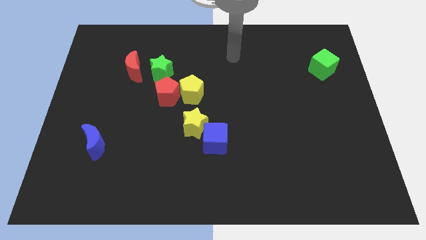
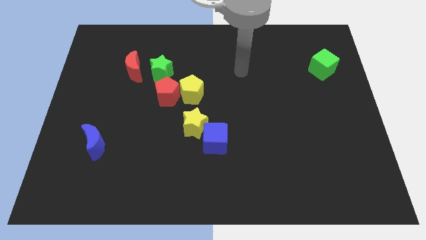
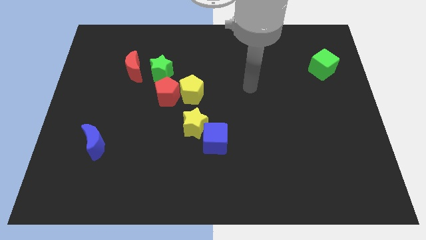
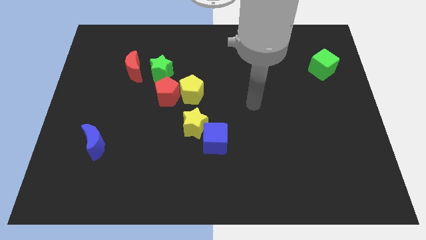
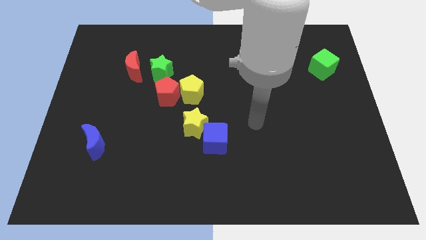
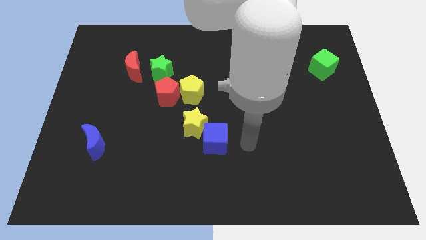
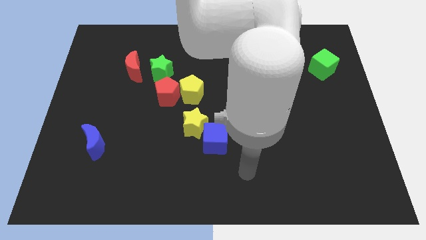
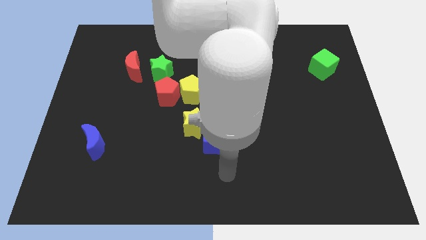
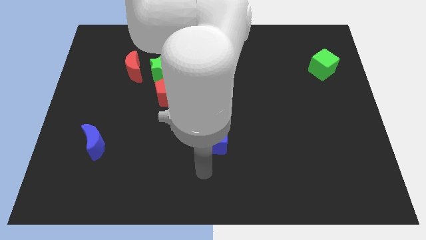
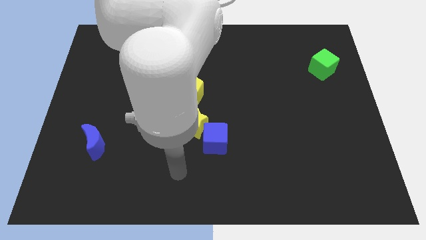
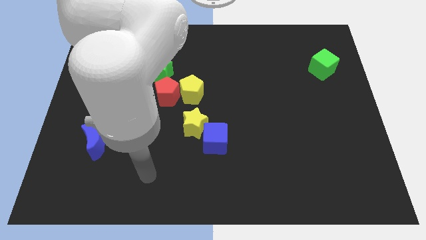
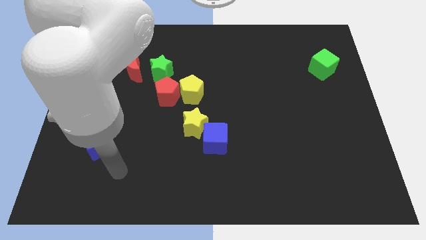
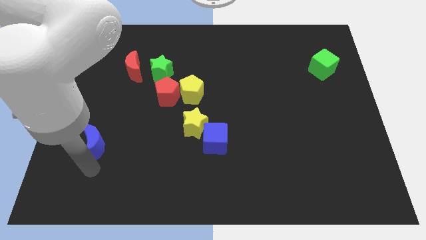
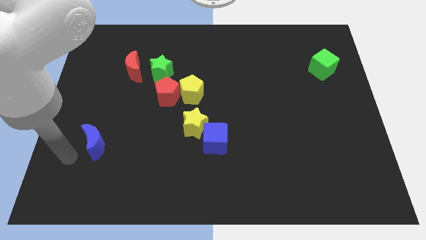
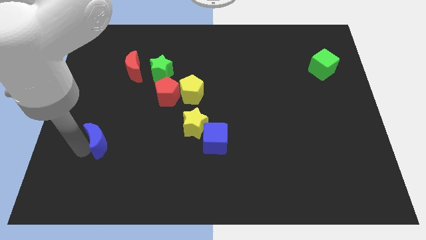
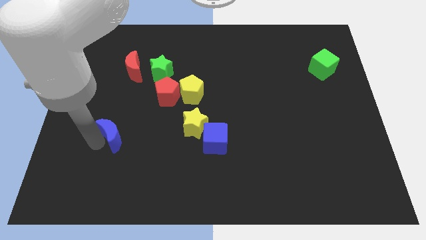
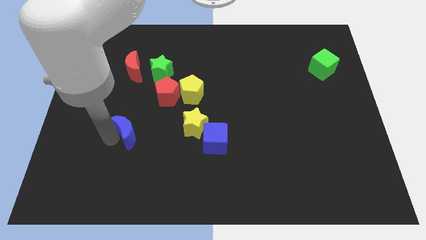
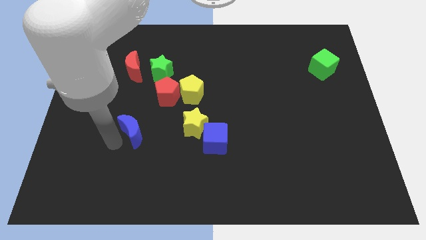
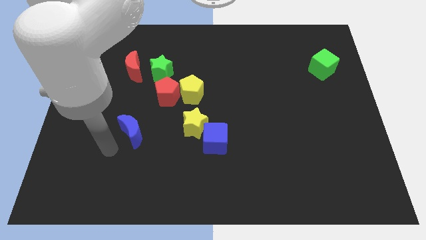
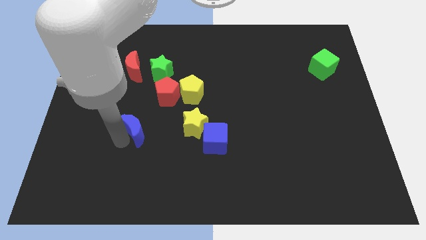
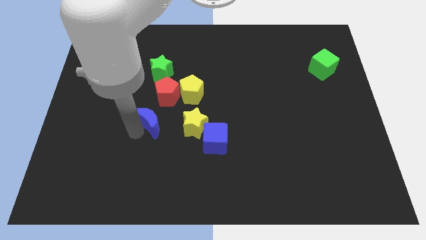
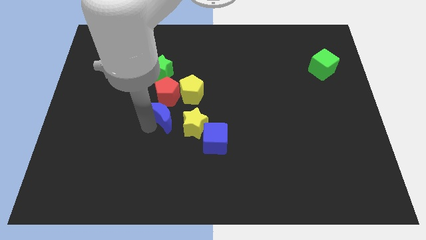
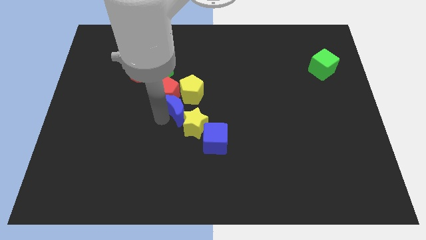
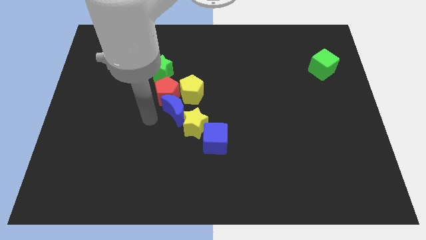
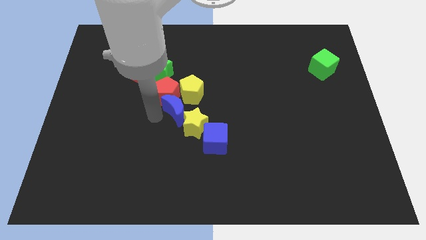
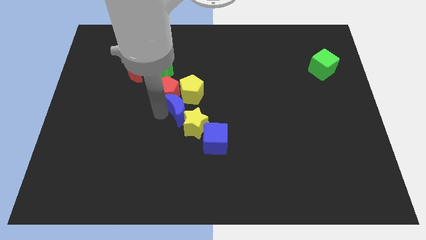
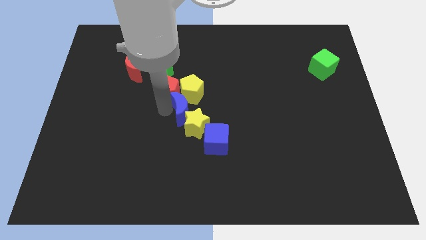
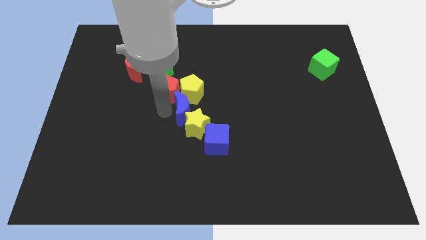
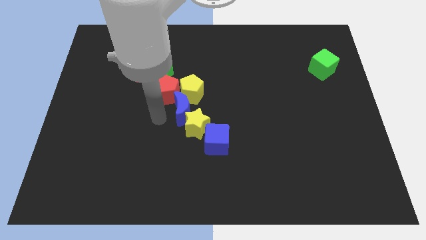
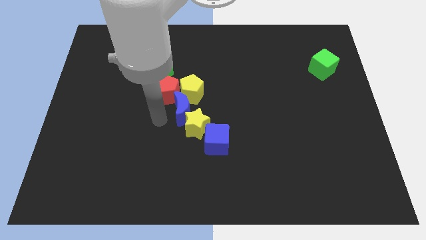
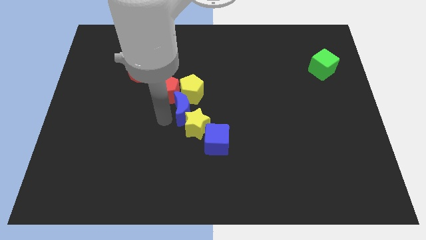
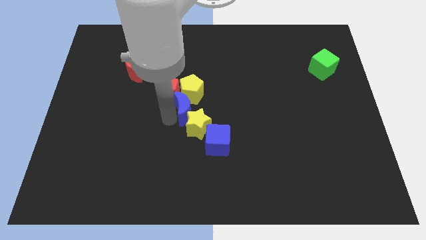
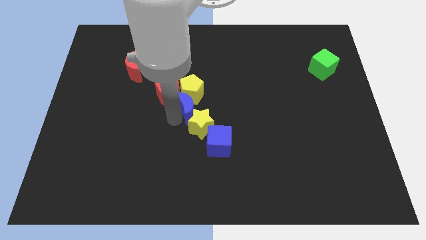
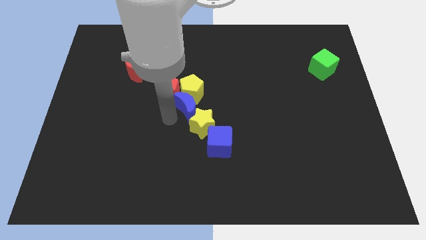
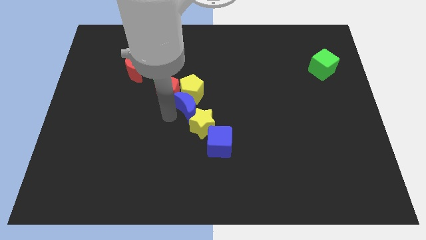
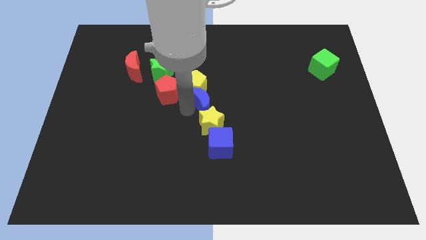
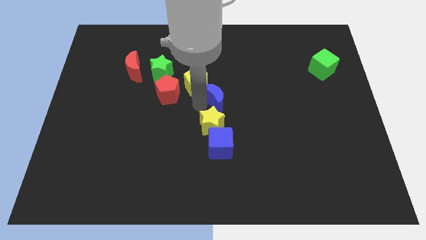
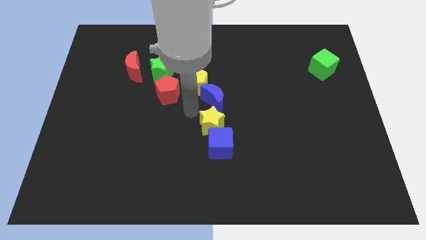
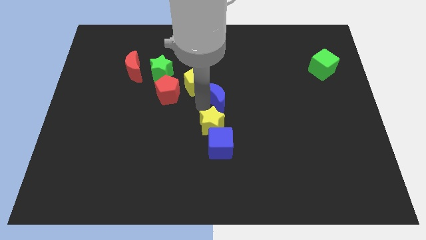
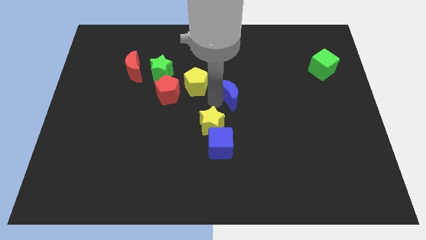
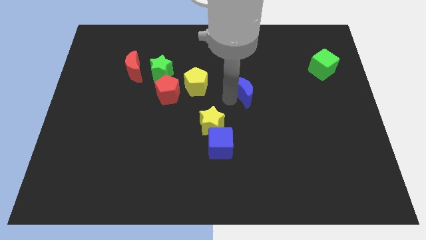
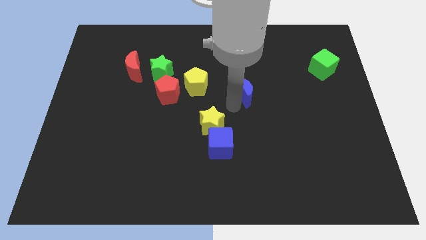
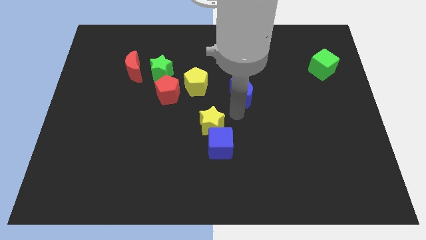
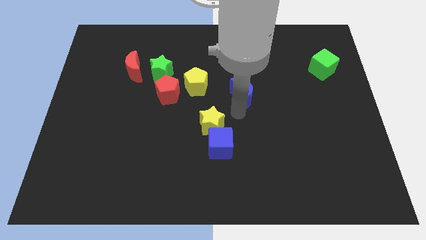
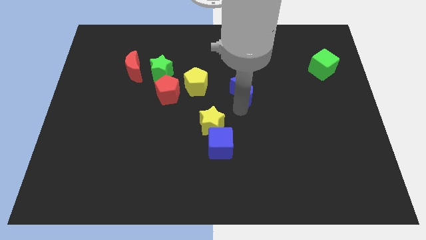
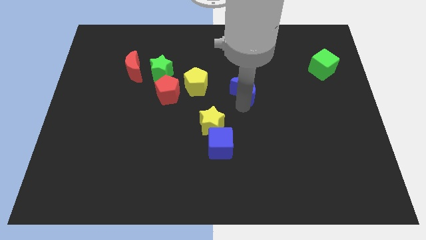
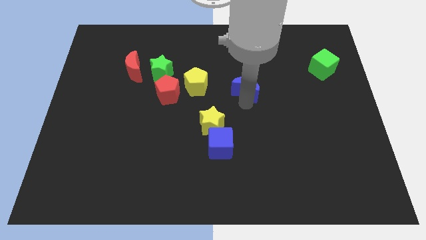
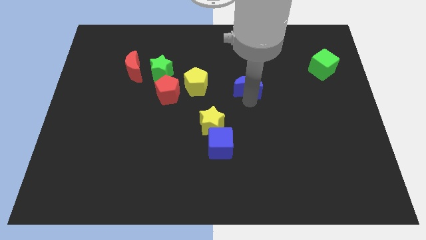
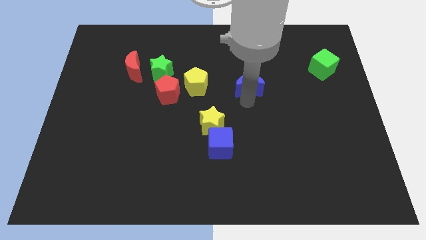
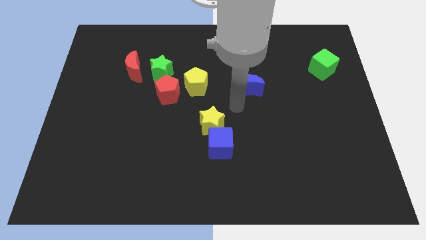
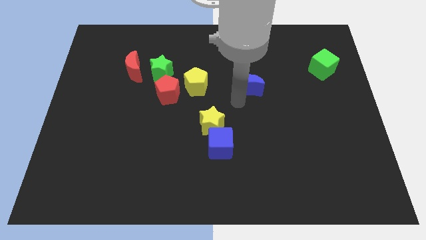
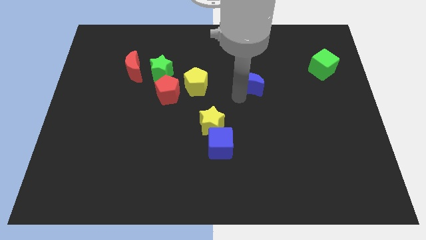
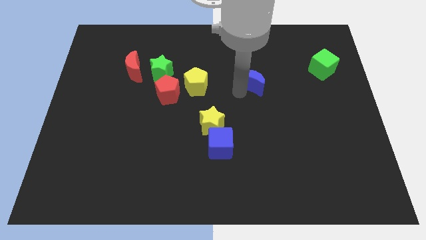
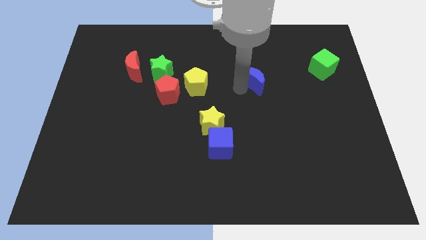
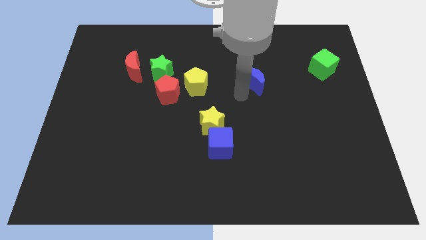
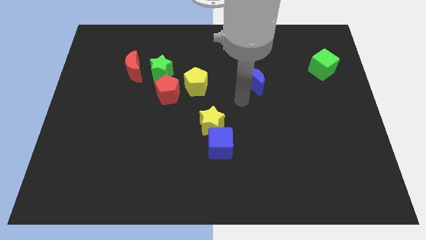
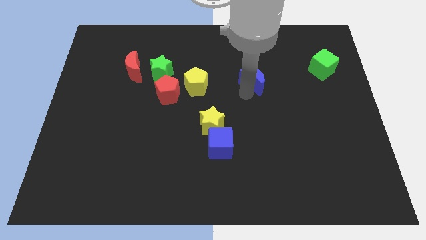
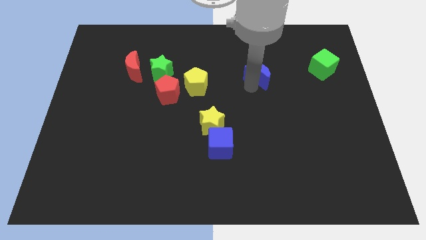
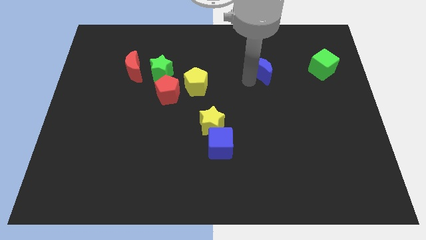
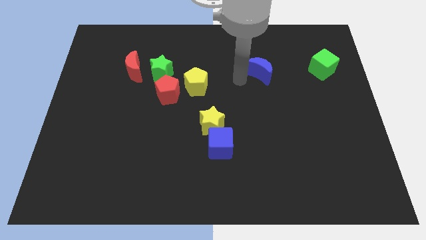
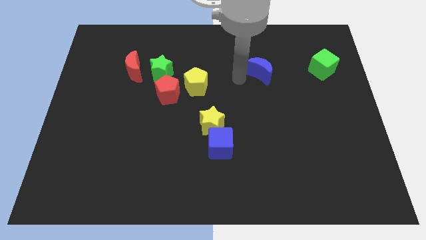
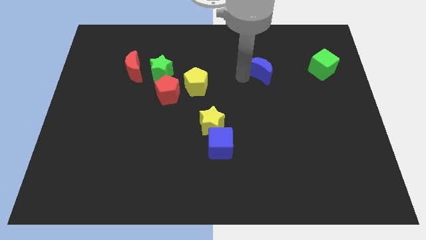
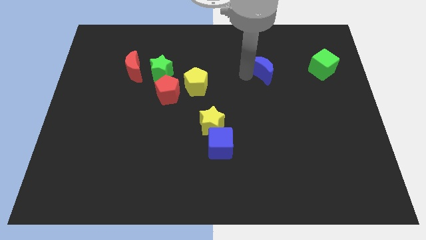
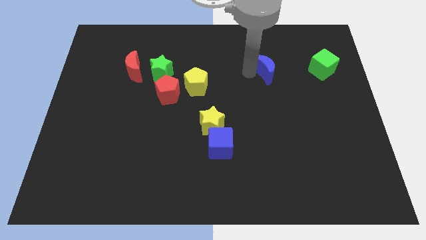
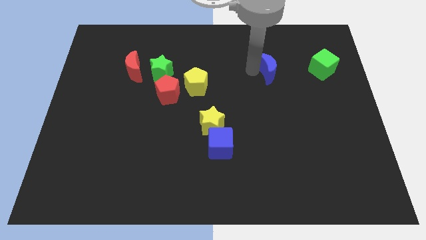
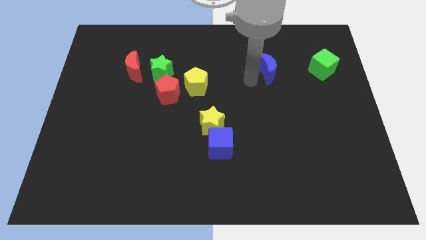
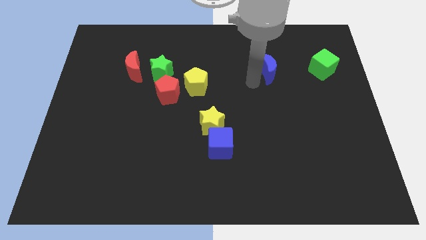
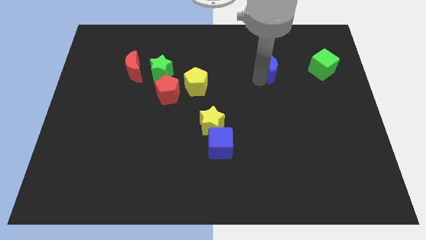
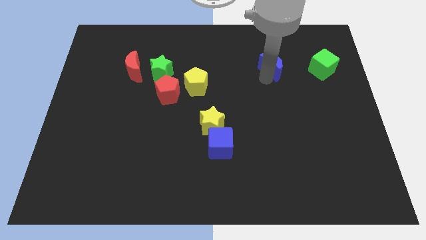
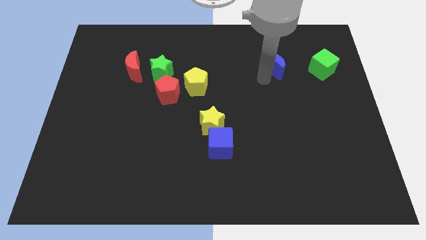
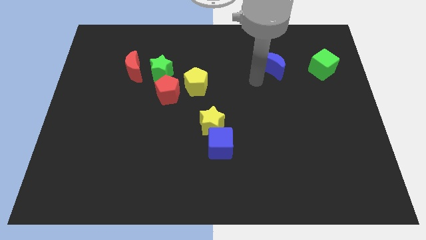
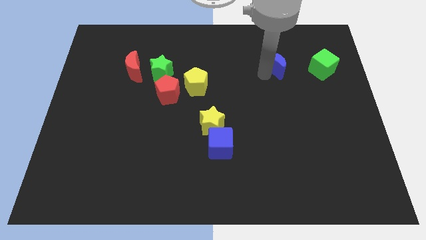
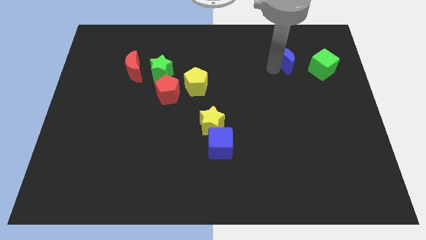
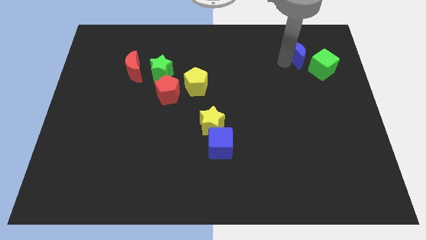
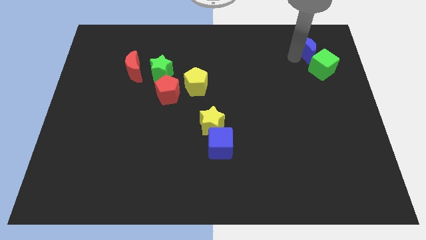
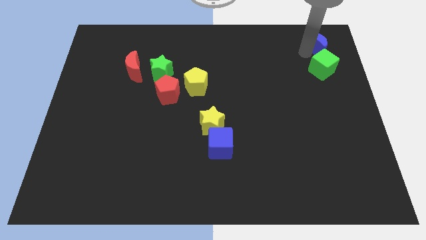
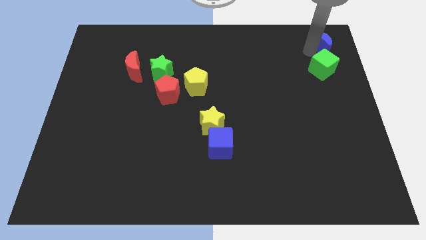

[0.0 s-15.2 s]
put the blue moon to the upper right corner
